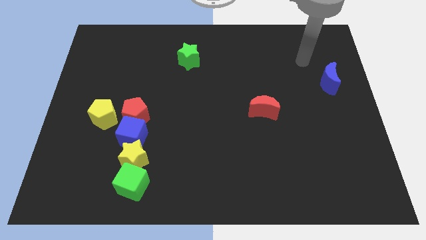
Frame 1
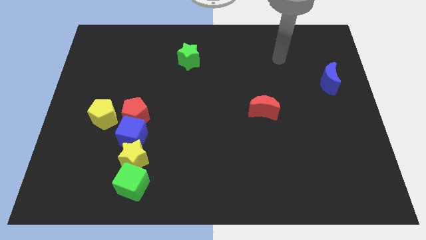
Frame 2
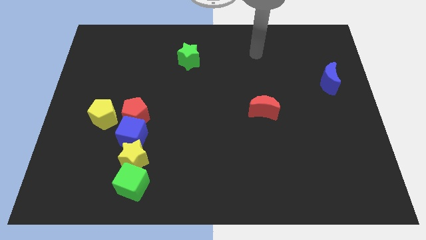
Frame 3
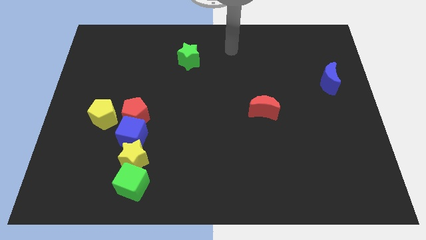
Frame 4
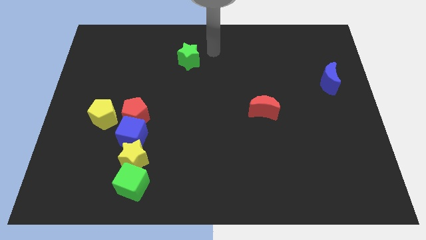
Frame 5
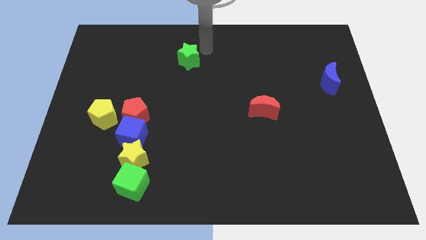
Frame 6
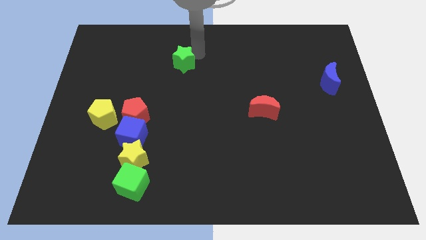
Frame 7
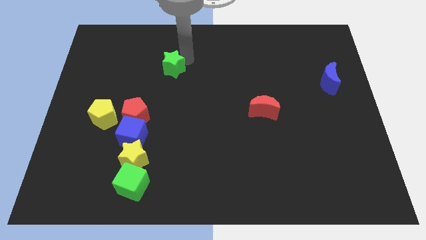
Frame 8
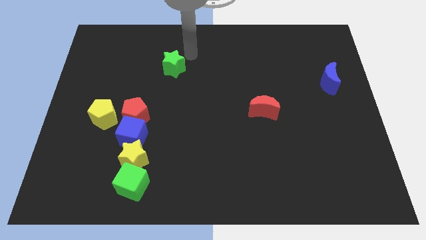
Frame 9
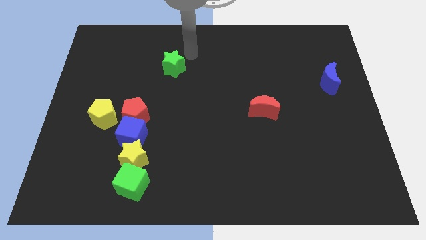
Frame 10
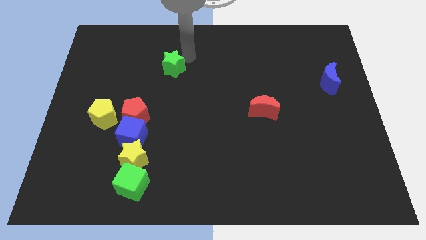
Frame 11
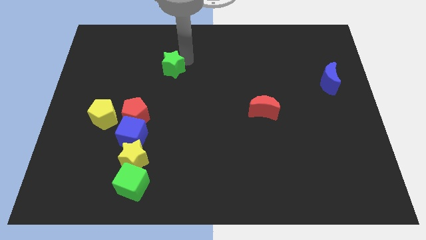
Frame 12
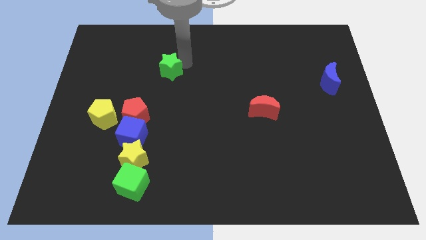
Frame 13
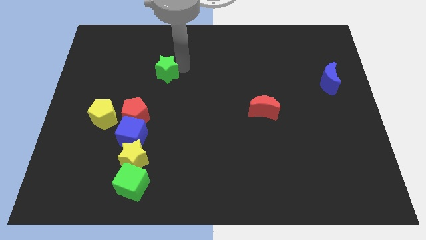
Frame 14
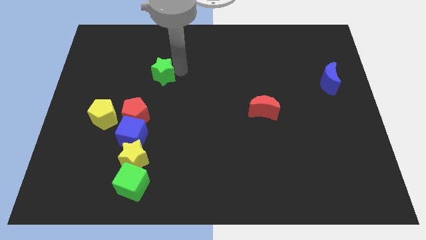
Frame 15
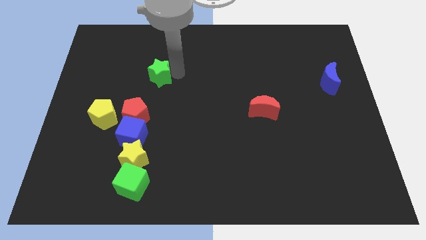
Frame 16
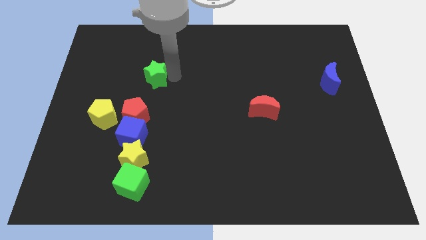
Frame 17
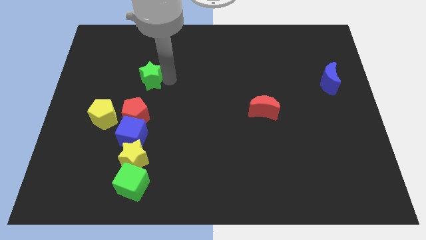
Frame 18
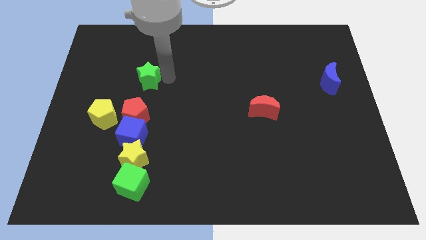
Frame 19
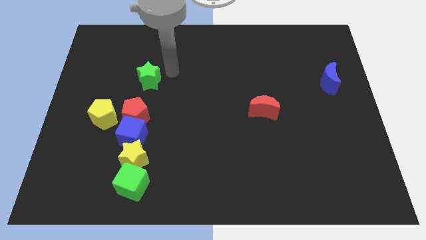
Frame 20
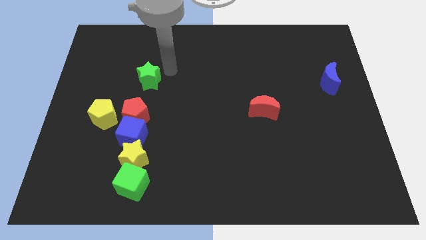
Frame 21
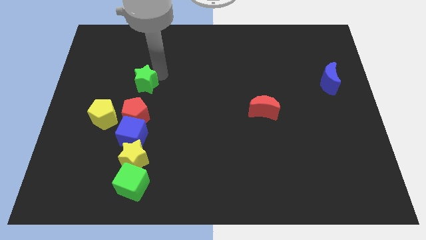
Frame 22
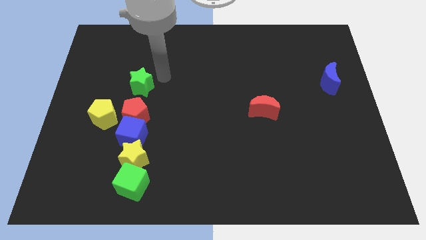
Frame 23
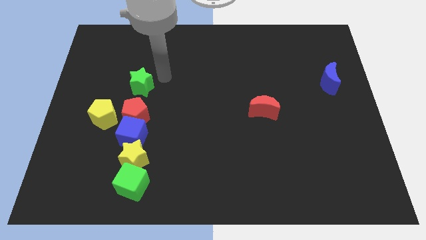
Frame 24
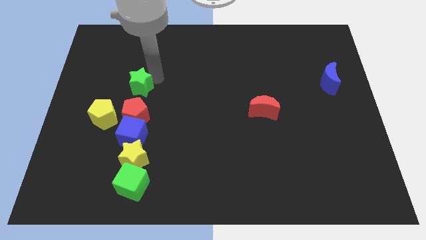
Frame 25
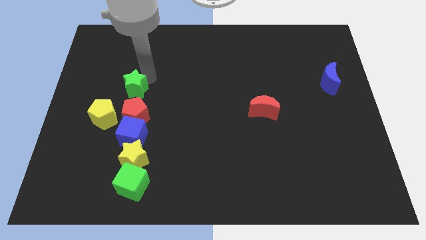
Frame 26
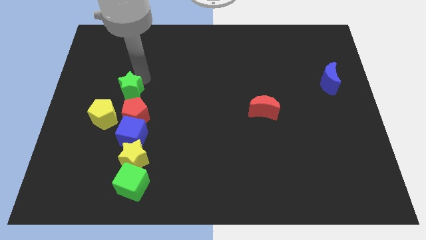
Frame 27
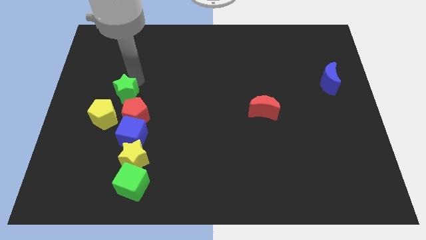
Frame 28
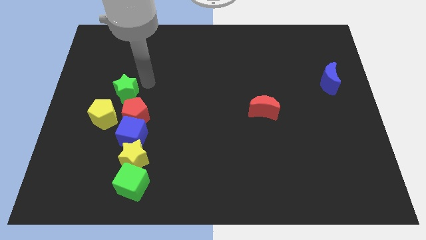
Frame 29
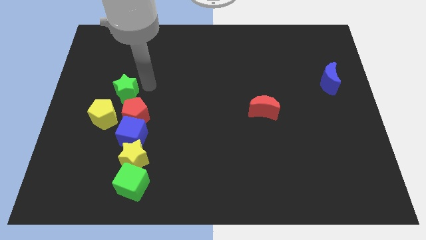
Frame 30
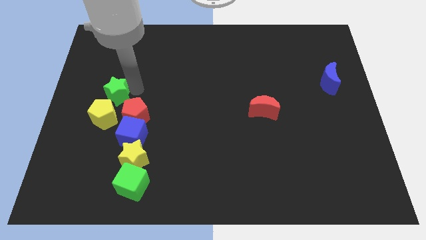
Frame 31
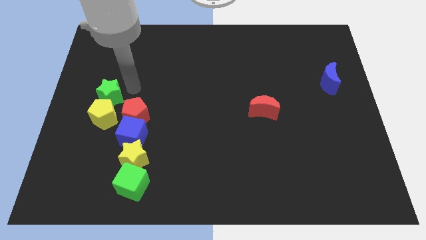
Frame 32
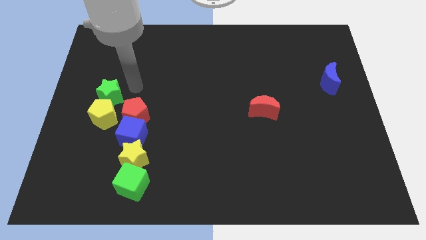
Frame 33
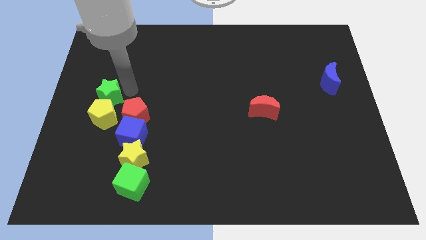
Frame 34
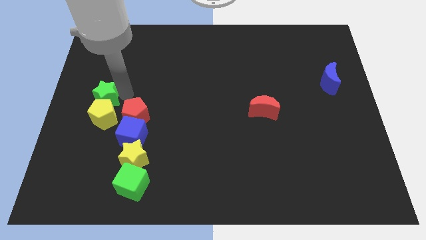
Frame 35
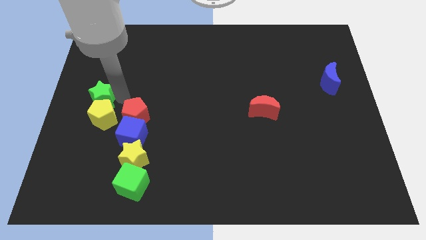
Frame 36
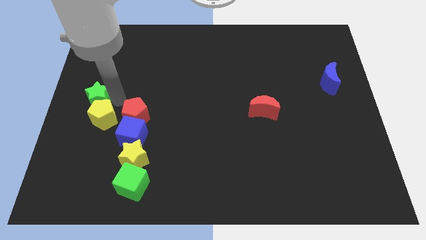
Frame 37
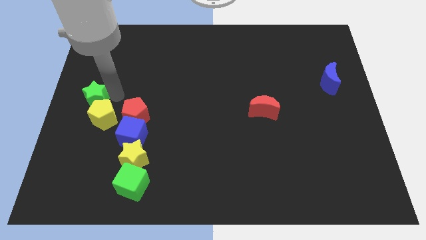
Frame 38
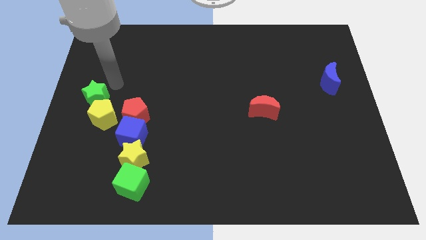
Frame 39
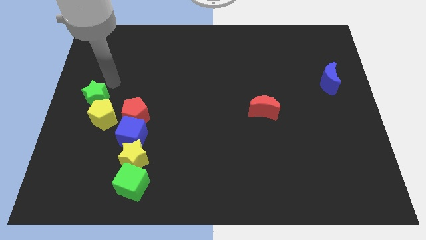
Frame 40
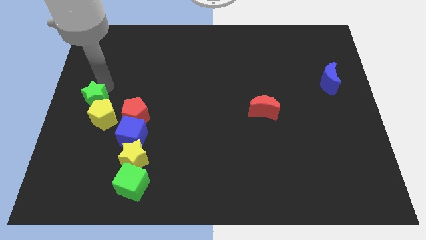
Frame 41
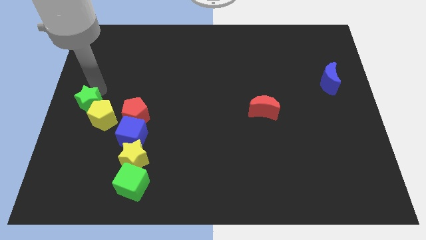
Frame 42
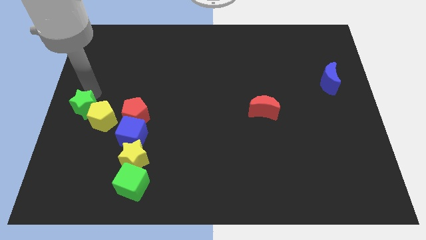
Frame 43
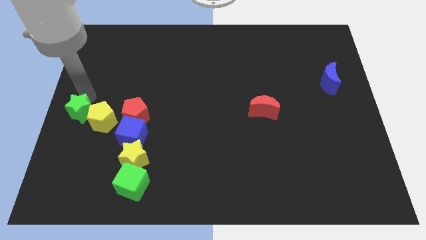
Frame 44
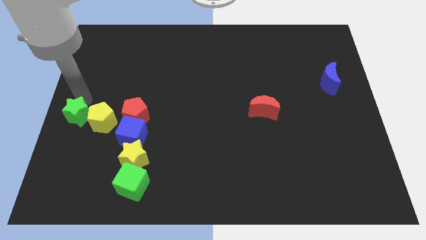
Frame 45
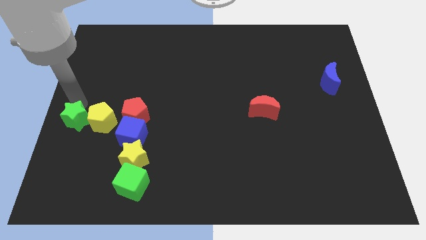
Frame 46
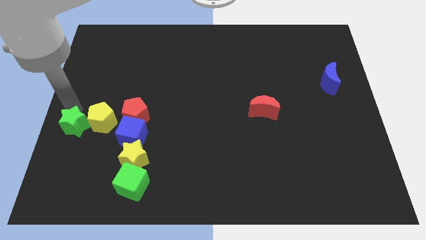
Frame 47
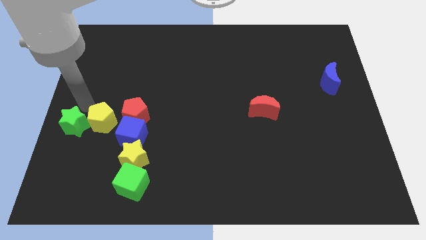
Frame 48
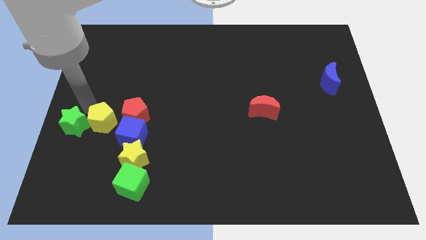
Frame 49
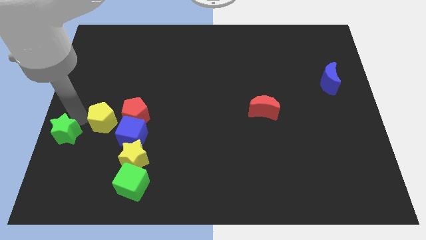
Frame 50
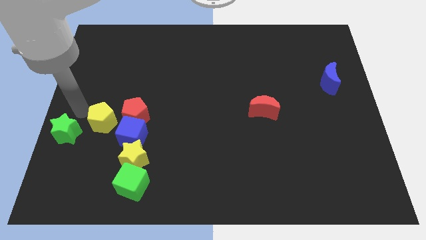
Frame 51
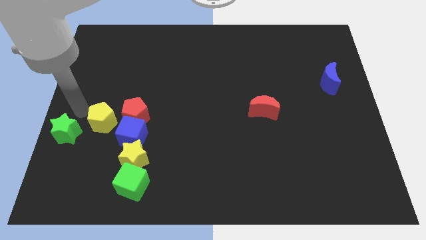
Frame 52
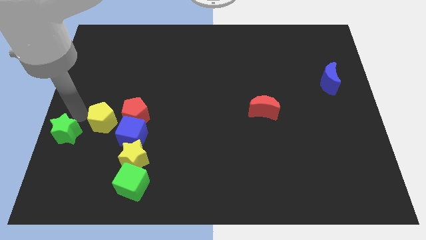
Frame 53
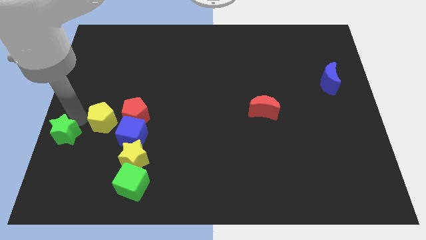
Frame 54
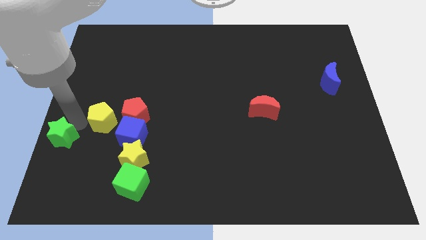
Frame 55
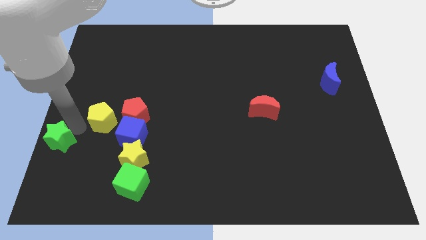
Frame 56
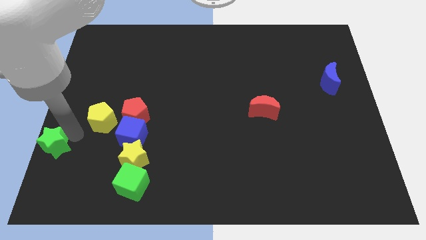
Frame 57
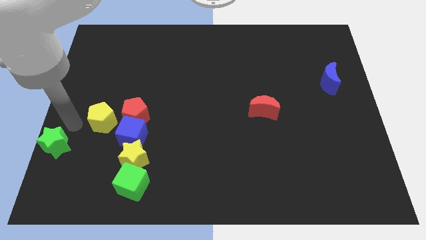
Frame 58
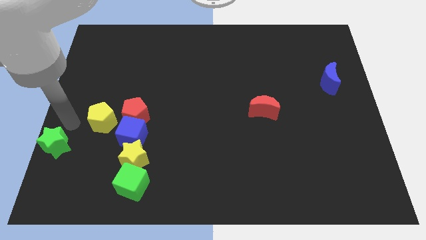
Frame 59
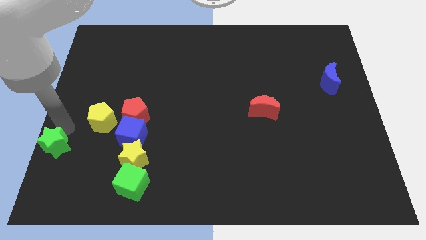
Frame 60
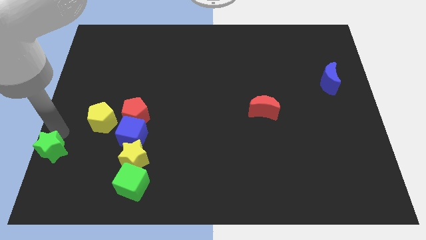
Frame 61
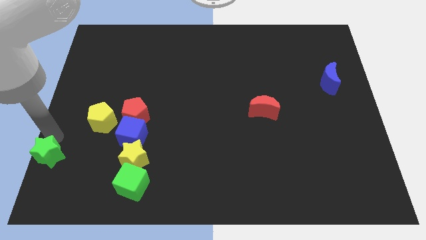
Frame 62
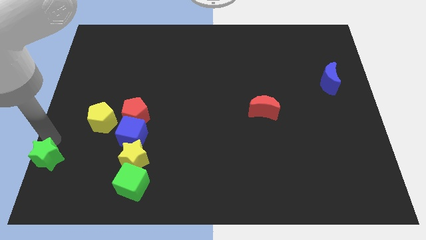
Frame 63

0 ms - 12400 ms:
slide the green star to the bottom left of the board

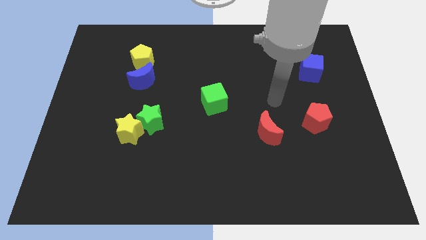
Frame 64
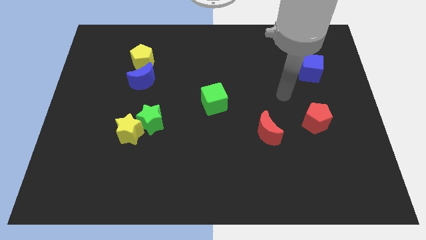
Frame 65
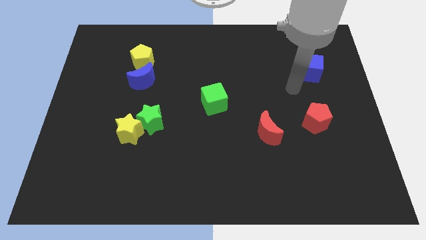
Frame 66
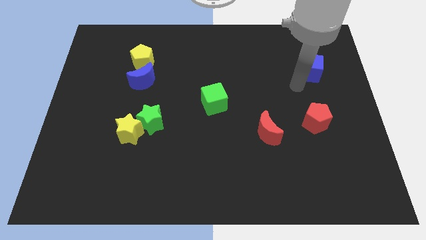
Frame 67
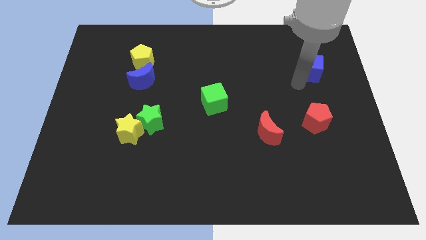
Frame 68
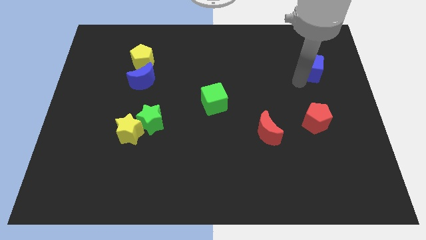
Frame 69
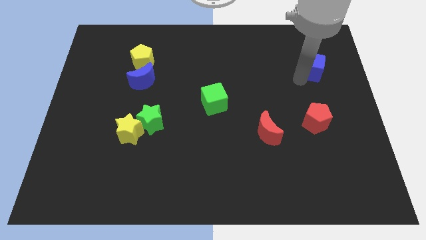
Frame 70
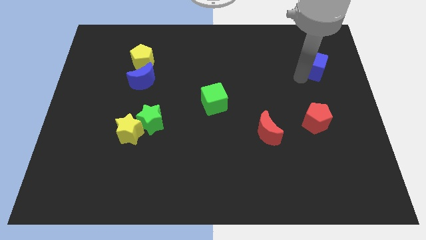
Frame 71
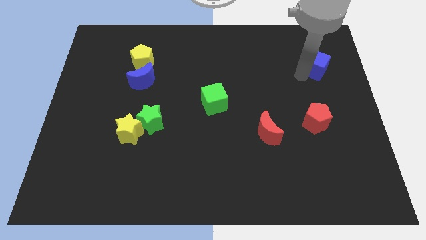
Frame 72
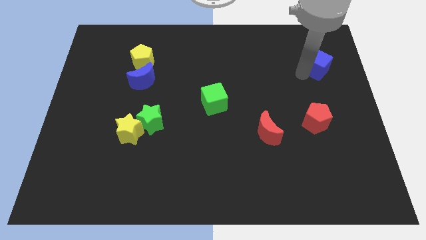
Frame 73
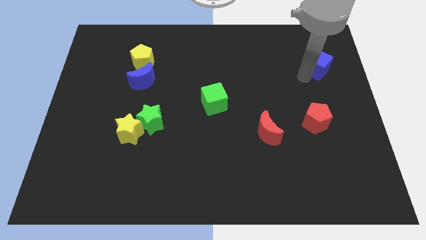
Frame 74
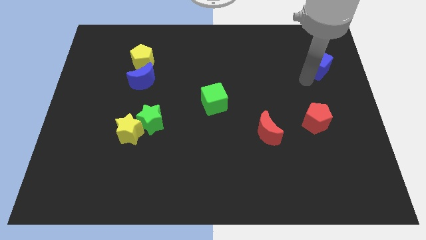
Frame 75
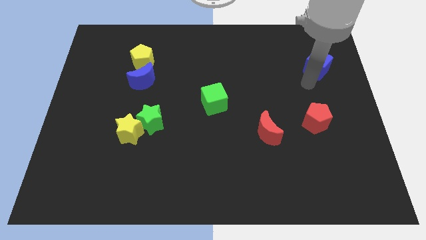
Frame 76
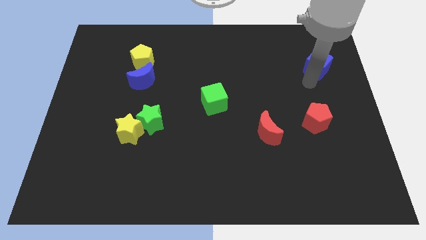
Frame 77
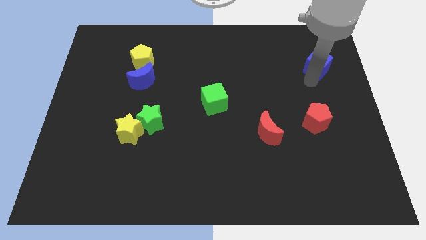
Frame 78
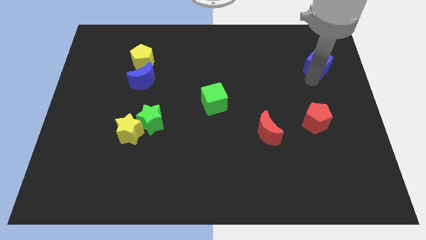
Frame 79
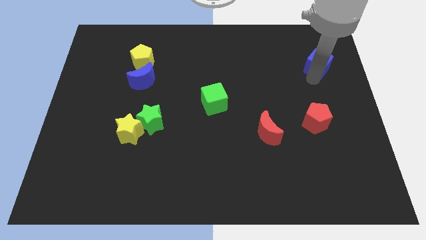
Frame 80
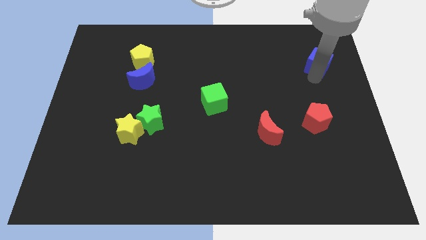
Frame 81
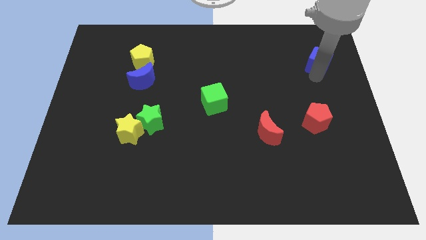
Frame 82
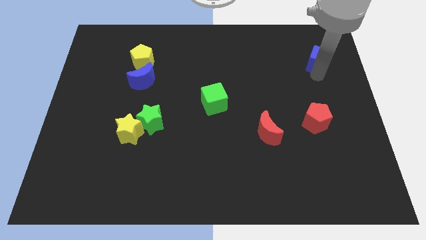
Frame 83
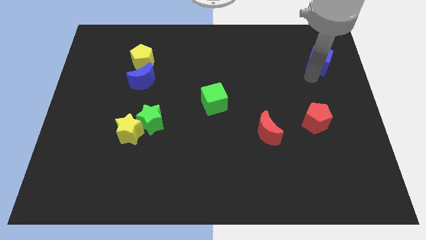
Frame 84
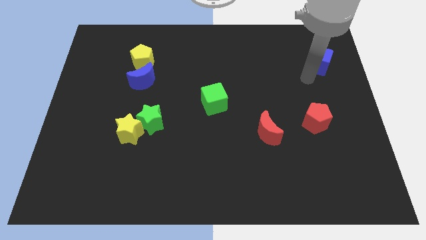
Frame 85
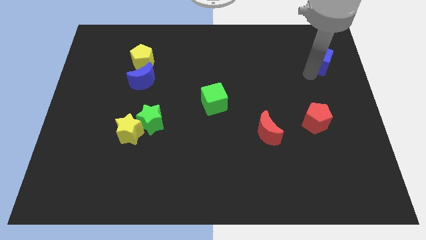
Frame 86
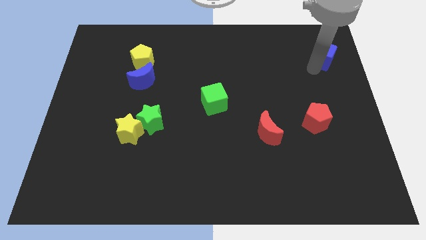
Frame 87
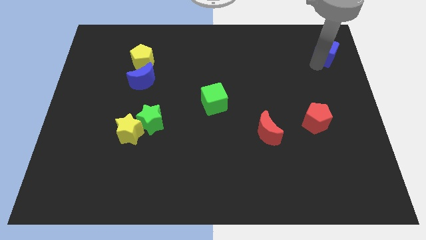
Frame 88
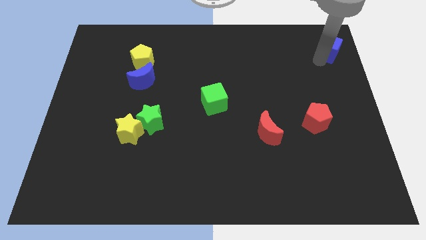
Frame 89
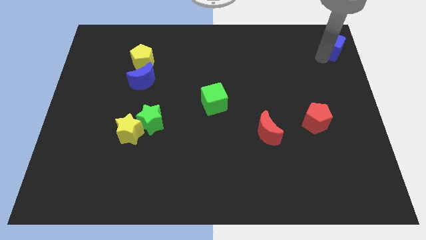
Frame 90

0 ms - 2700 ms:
put the blue cube to the top right
